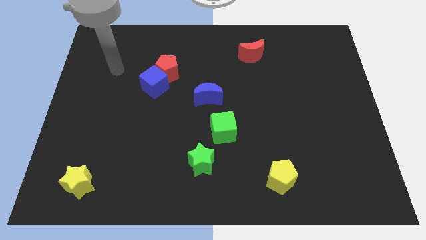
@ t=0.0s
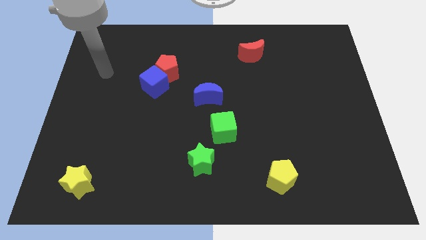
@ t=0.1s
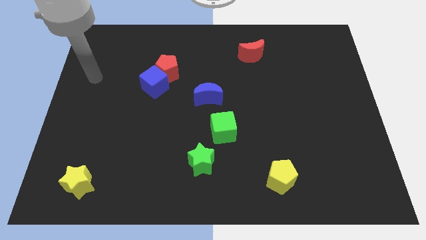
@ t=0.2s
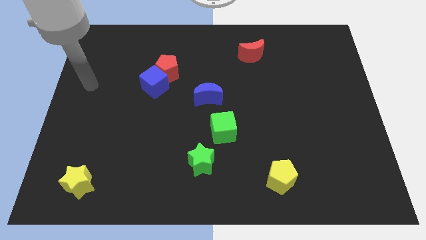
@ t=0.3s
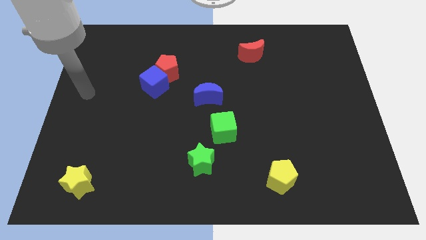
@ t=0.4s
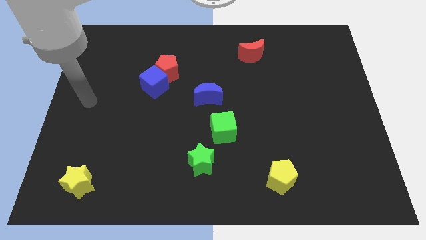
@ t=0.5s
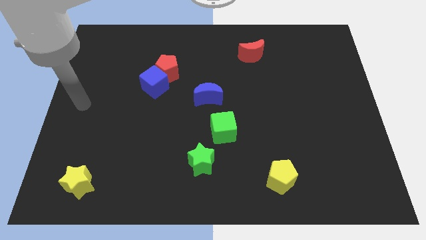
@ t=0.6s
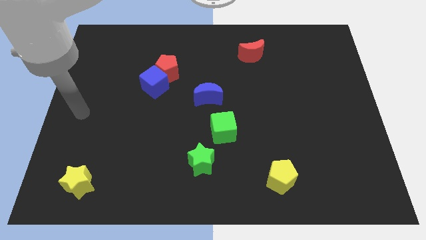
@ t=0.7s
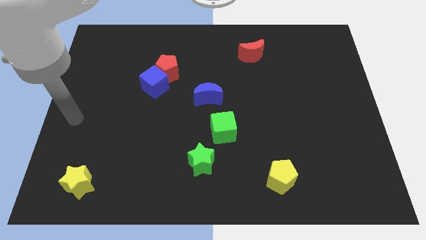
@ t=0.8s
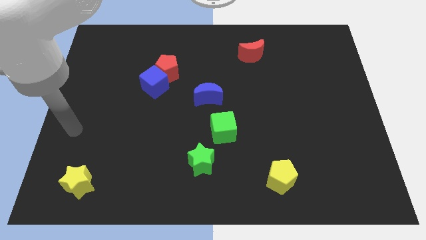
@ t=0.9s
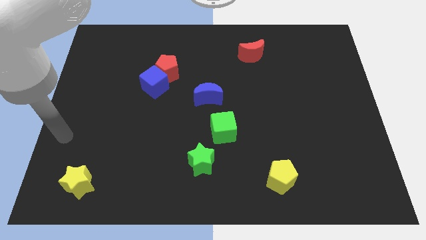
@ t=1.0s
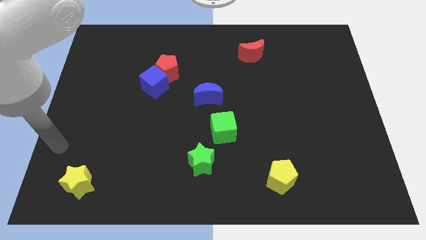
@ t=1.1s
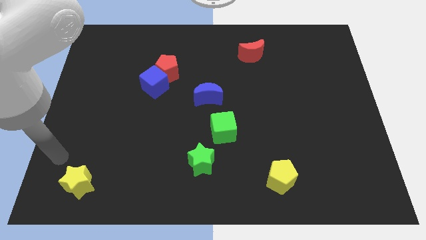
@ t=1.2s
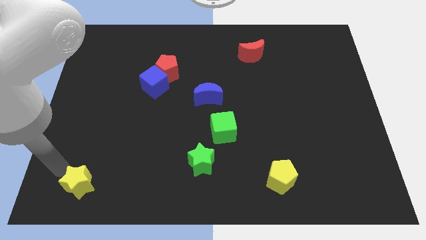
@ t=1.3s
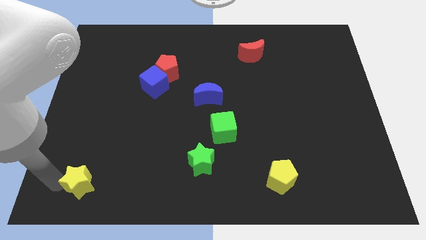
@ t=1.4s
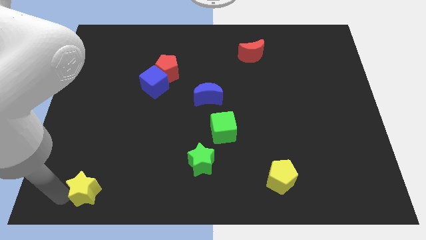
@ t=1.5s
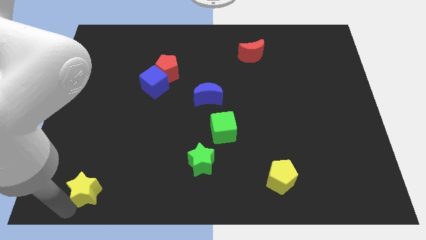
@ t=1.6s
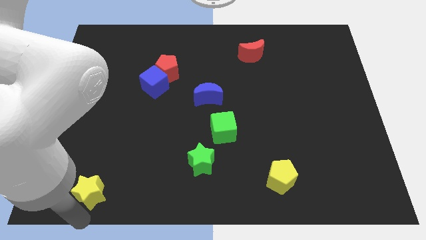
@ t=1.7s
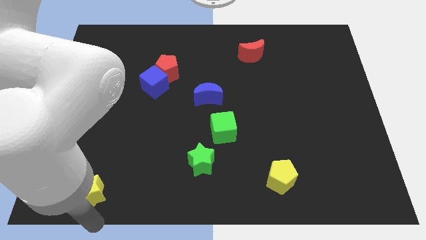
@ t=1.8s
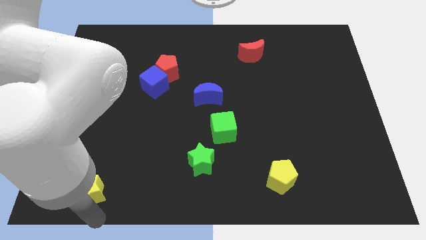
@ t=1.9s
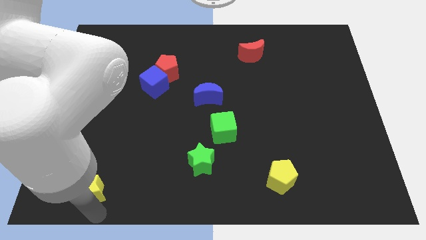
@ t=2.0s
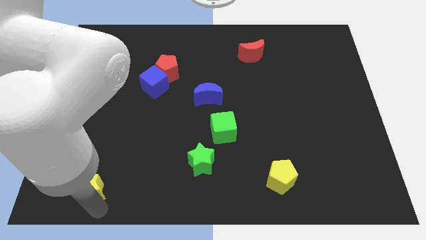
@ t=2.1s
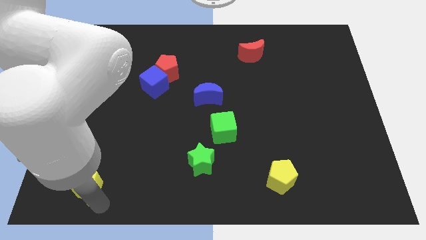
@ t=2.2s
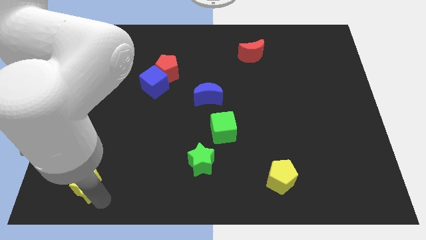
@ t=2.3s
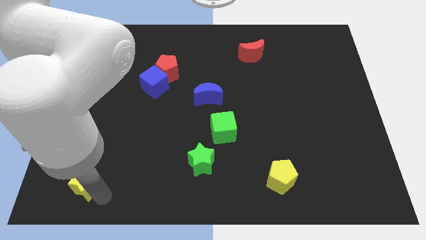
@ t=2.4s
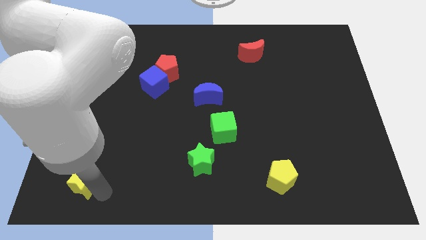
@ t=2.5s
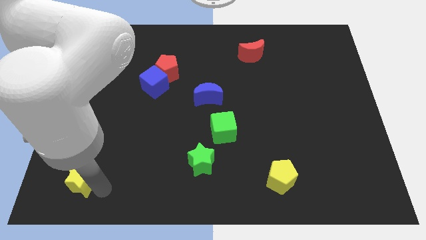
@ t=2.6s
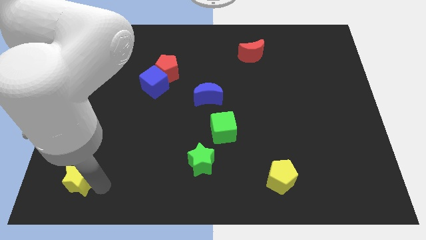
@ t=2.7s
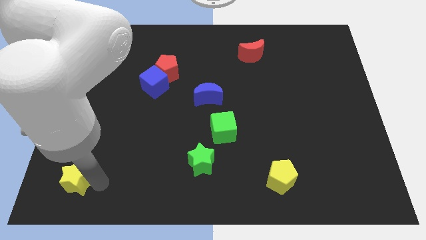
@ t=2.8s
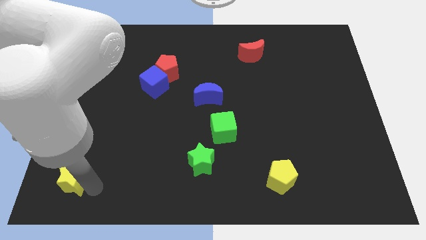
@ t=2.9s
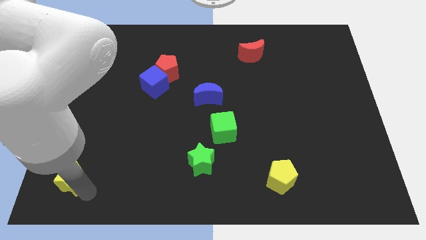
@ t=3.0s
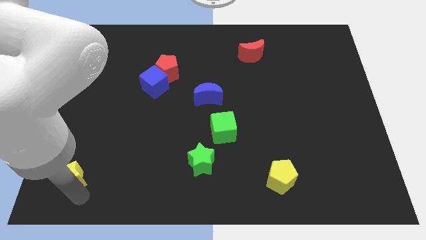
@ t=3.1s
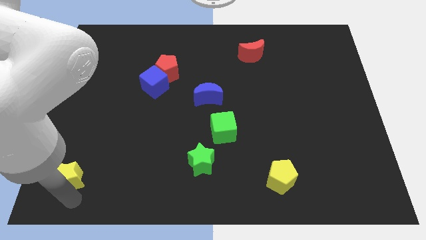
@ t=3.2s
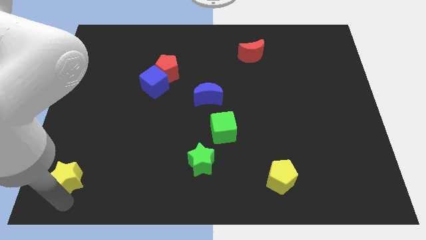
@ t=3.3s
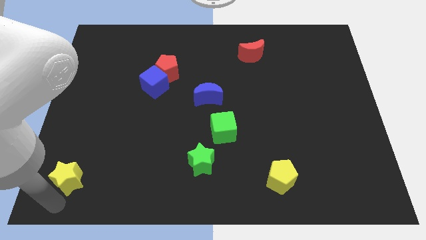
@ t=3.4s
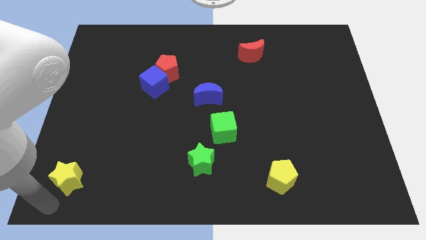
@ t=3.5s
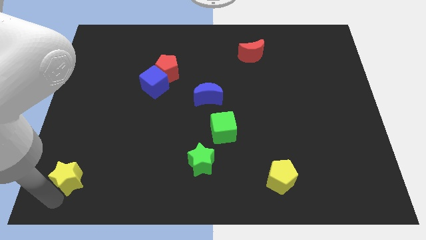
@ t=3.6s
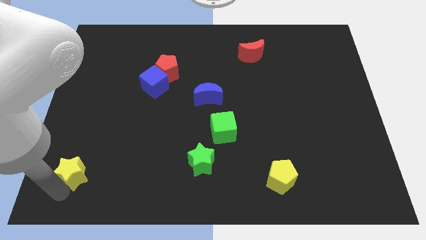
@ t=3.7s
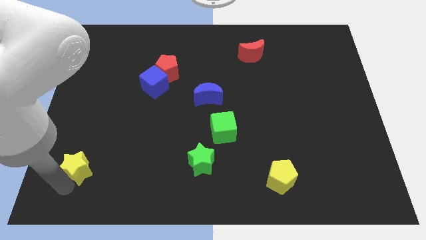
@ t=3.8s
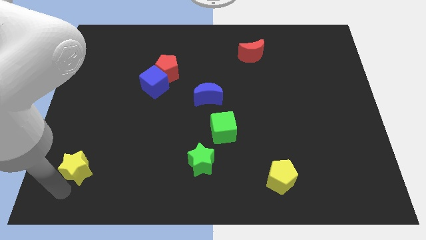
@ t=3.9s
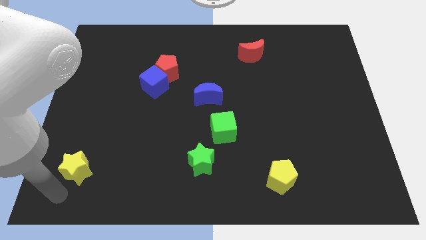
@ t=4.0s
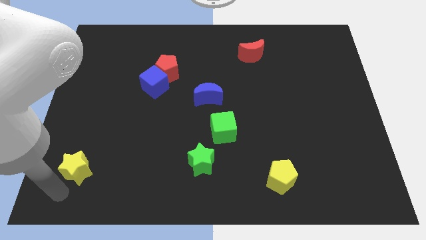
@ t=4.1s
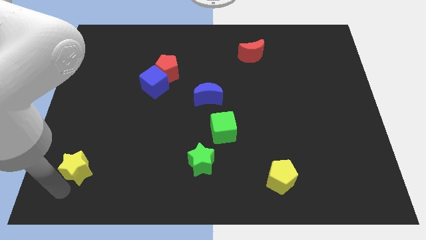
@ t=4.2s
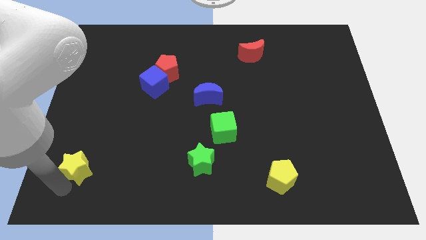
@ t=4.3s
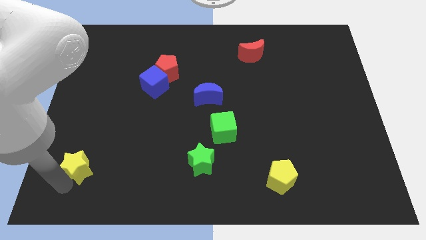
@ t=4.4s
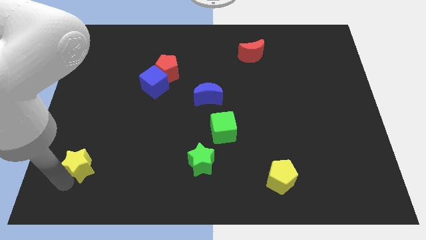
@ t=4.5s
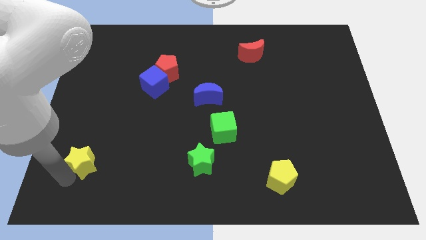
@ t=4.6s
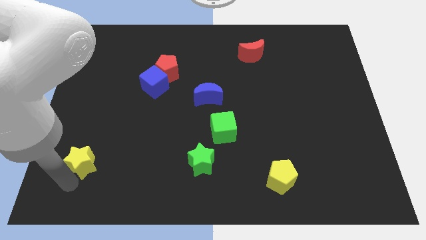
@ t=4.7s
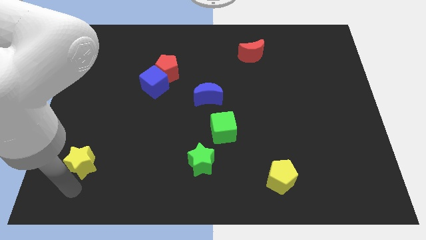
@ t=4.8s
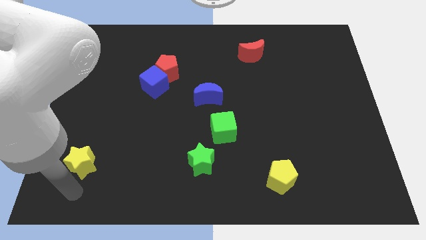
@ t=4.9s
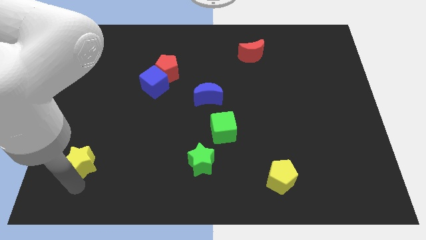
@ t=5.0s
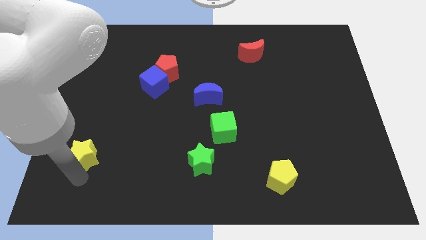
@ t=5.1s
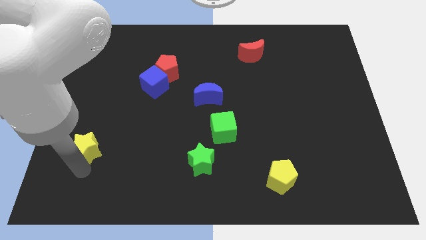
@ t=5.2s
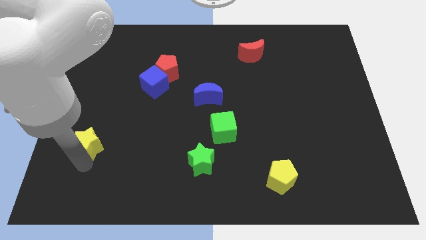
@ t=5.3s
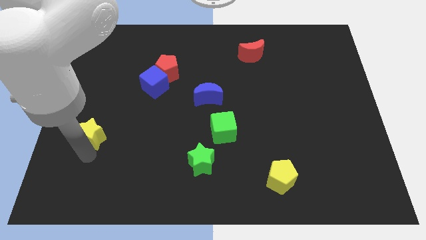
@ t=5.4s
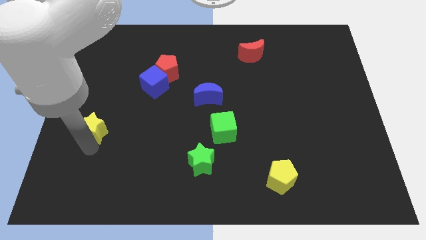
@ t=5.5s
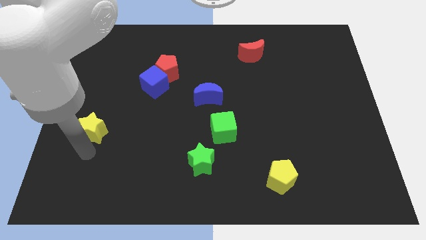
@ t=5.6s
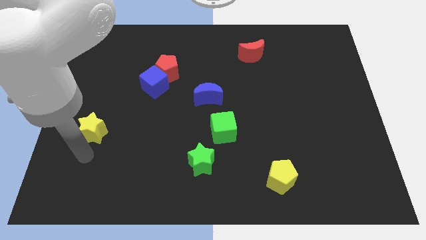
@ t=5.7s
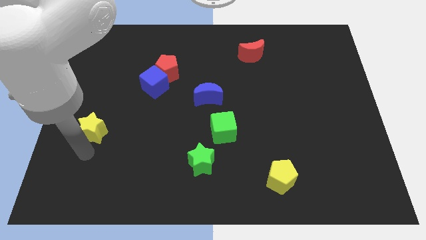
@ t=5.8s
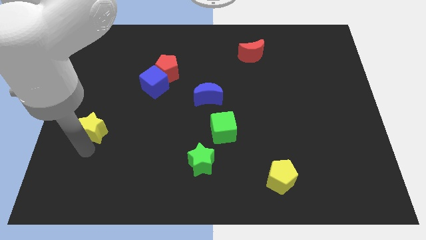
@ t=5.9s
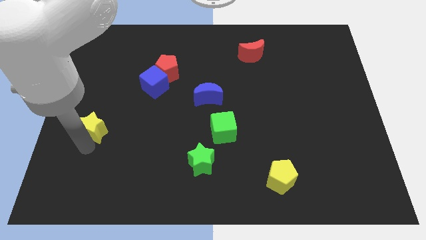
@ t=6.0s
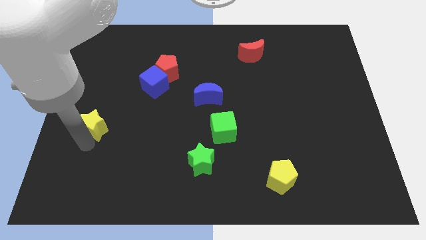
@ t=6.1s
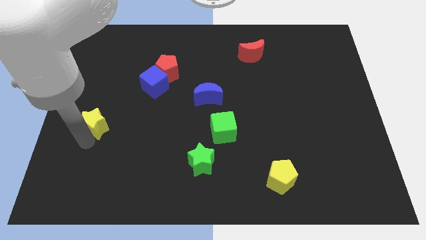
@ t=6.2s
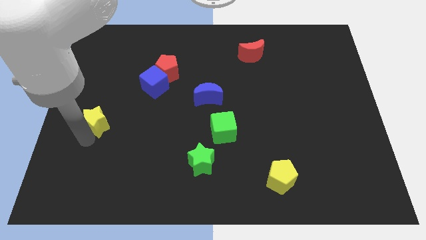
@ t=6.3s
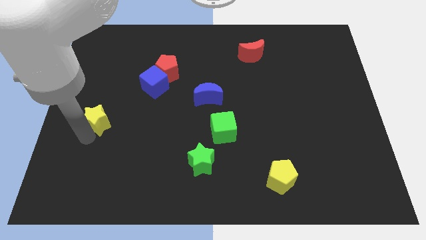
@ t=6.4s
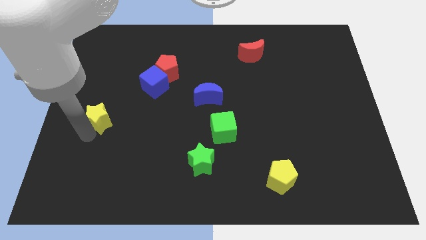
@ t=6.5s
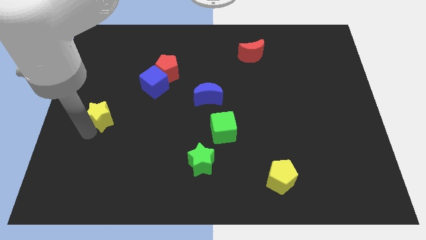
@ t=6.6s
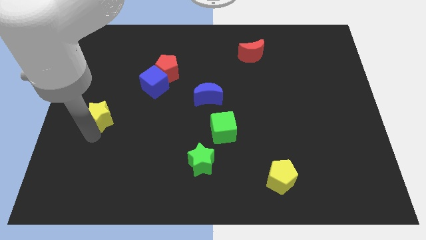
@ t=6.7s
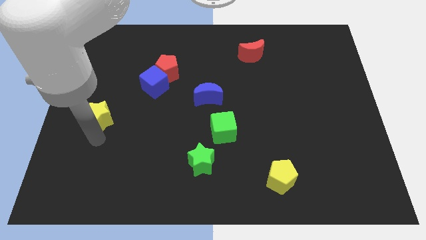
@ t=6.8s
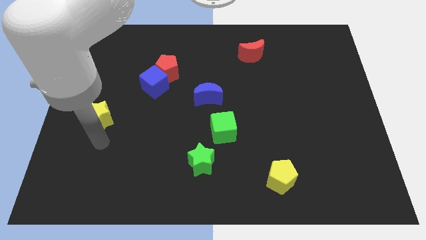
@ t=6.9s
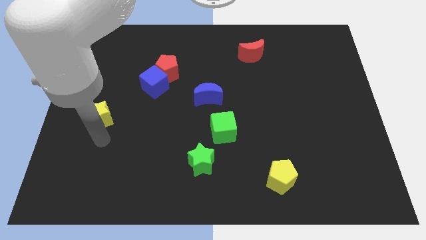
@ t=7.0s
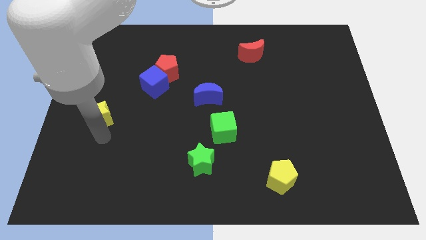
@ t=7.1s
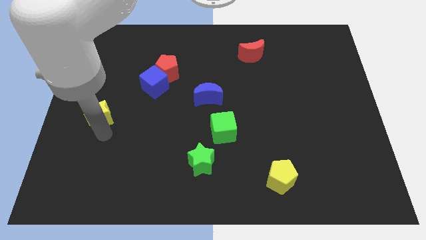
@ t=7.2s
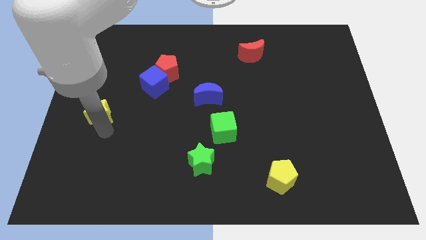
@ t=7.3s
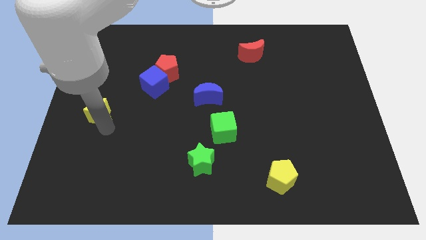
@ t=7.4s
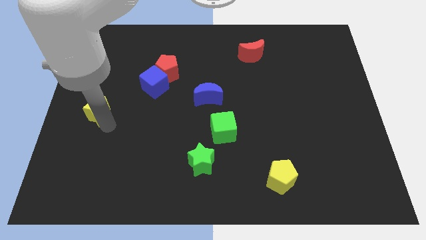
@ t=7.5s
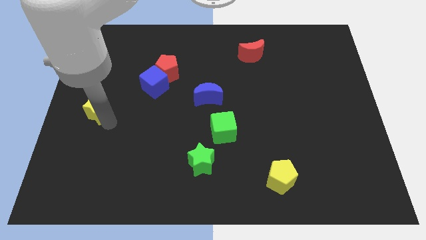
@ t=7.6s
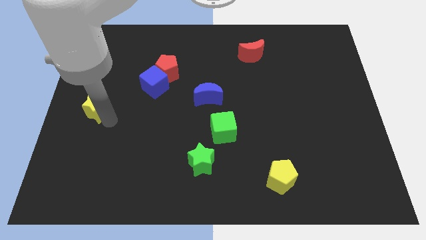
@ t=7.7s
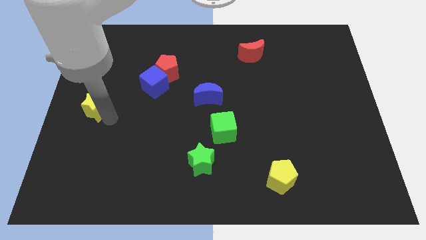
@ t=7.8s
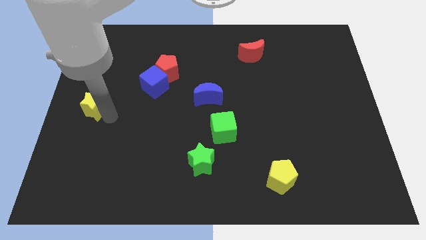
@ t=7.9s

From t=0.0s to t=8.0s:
move the yellow star upwards
